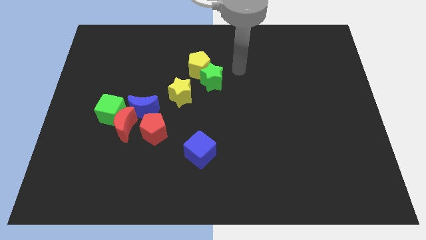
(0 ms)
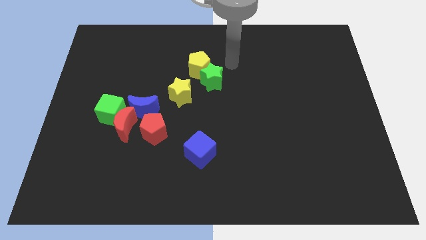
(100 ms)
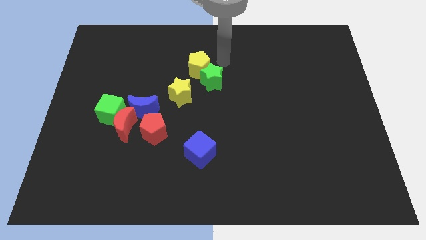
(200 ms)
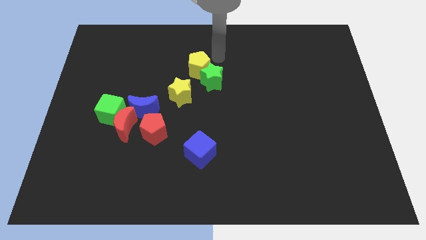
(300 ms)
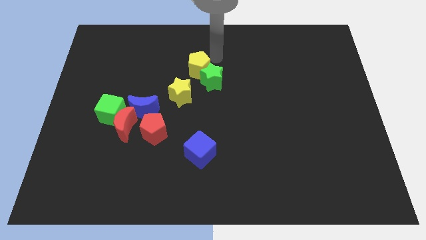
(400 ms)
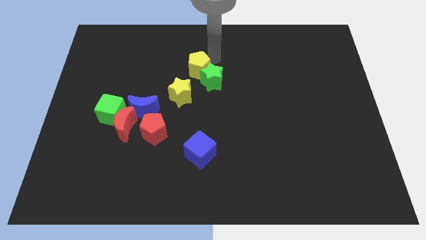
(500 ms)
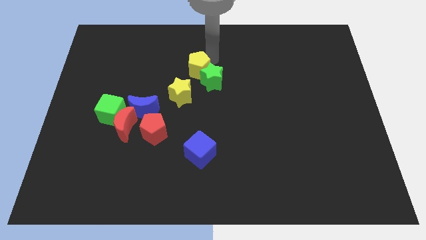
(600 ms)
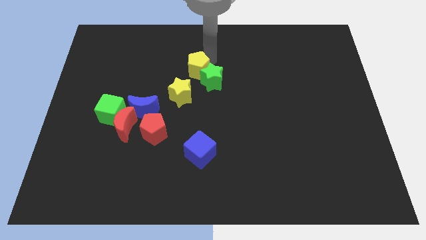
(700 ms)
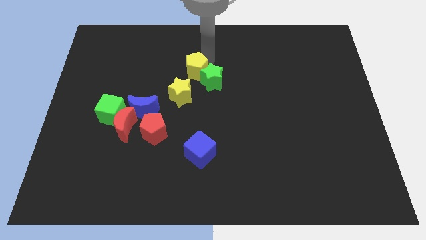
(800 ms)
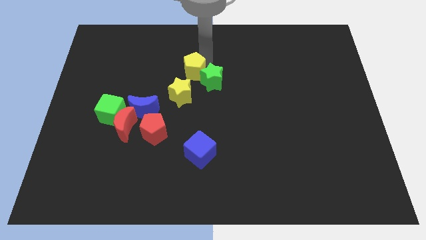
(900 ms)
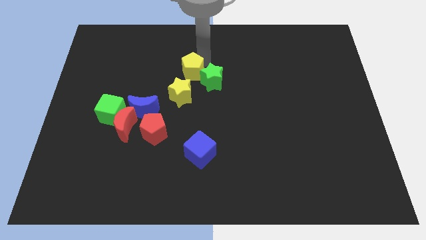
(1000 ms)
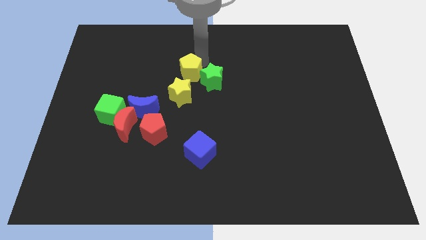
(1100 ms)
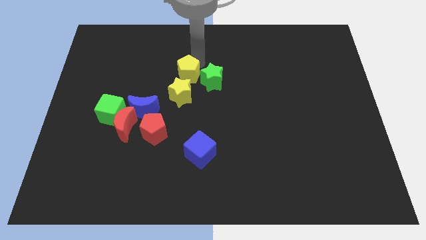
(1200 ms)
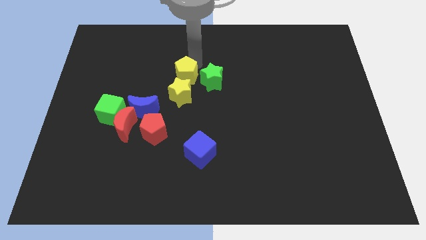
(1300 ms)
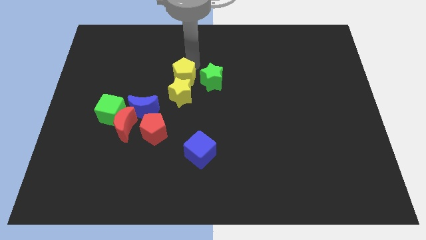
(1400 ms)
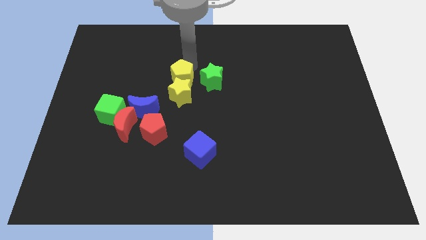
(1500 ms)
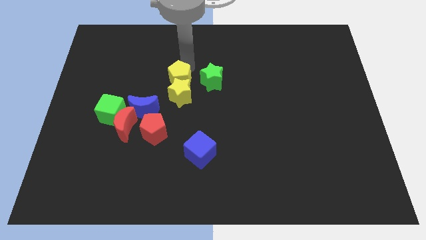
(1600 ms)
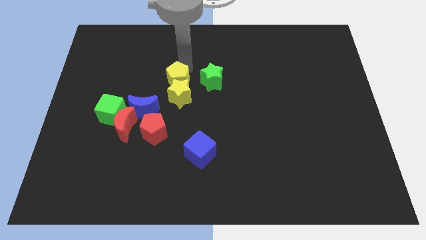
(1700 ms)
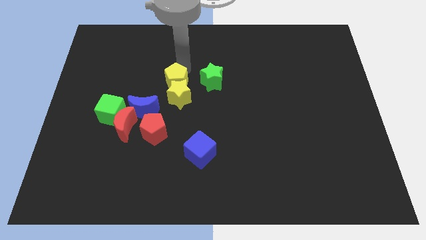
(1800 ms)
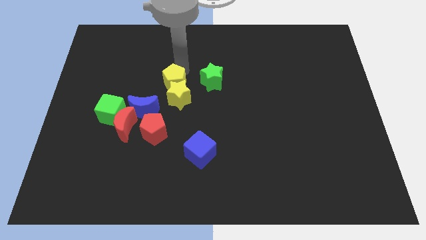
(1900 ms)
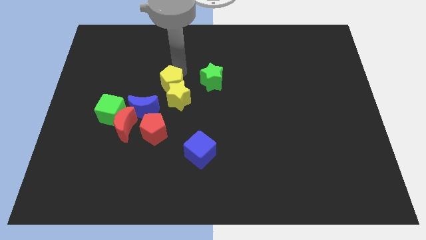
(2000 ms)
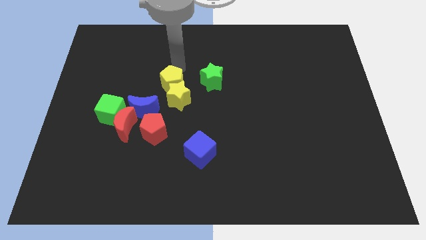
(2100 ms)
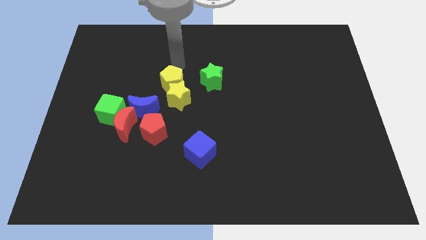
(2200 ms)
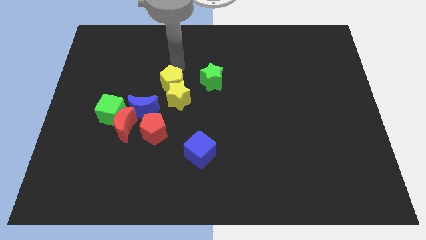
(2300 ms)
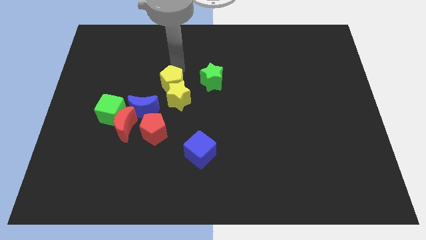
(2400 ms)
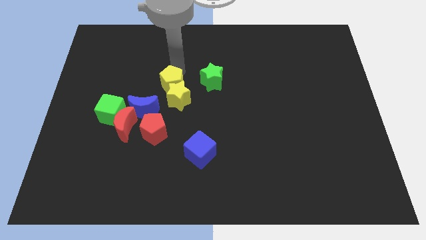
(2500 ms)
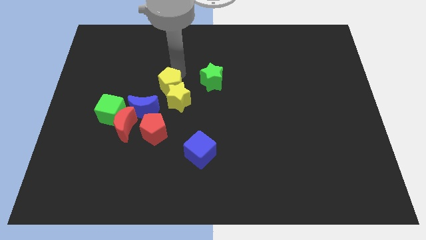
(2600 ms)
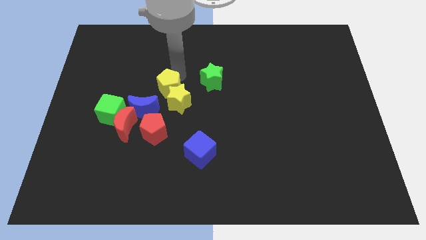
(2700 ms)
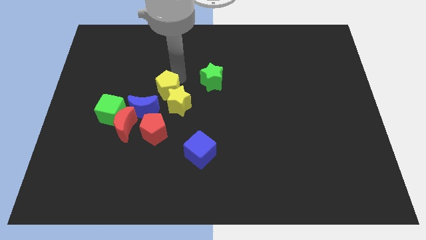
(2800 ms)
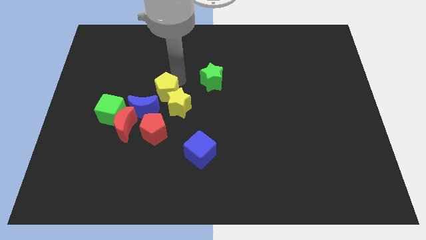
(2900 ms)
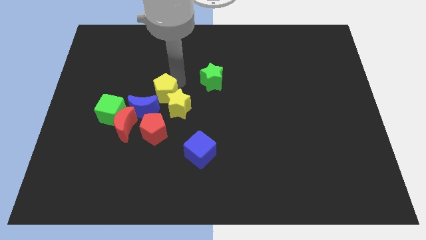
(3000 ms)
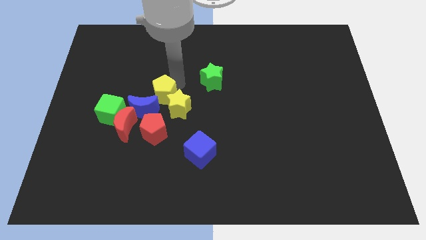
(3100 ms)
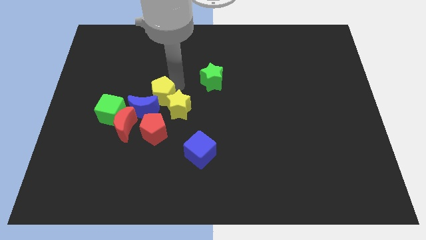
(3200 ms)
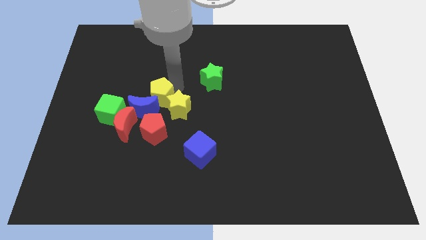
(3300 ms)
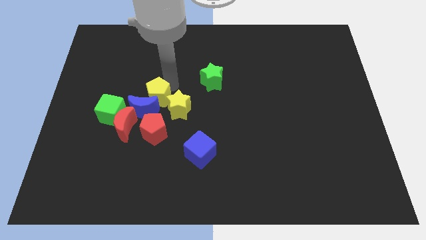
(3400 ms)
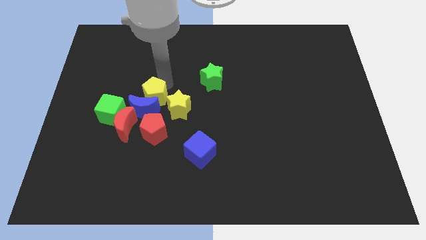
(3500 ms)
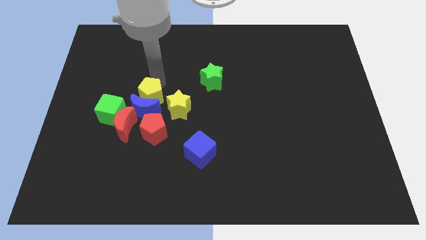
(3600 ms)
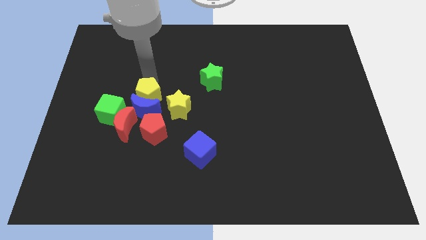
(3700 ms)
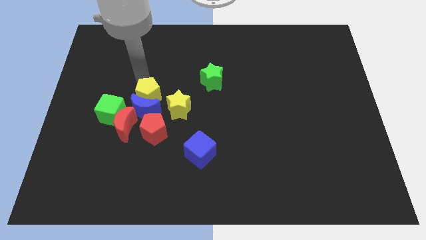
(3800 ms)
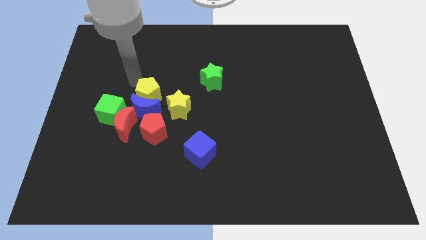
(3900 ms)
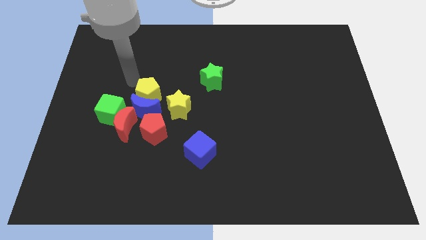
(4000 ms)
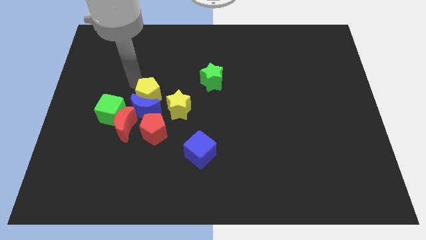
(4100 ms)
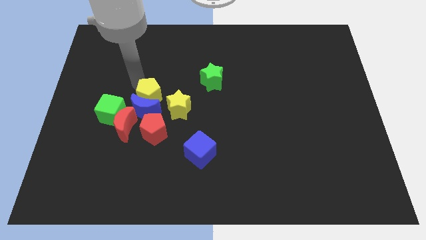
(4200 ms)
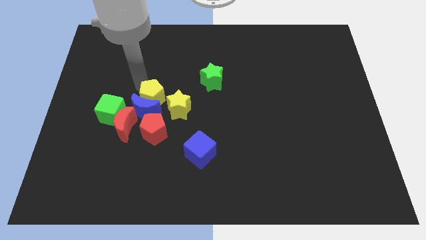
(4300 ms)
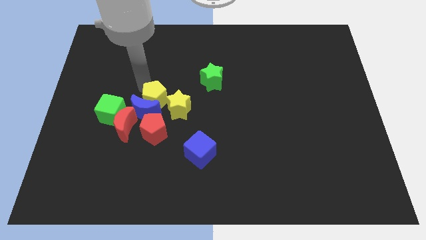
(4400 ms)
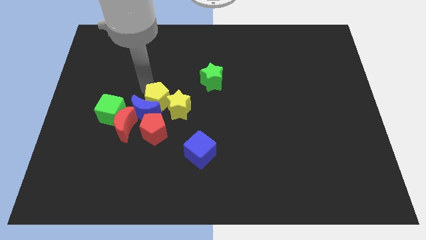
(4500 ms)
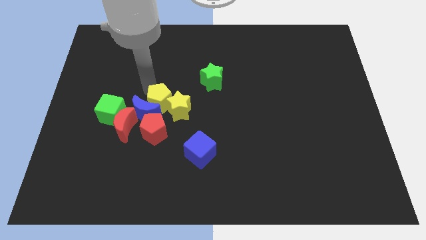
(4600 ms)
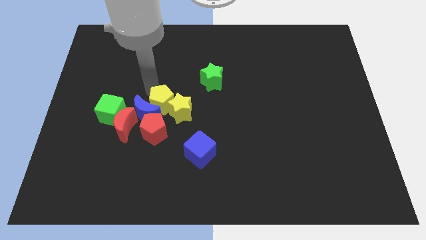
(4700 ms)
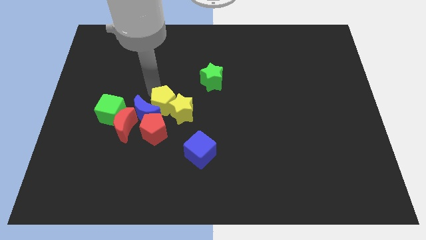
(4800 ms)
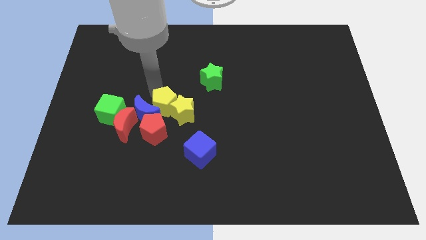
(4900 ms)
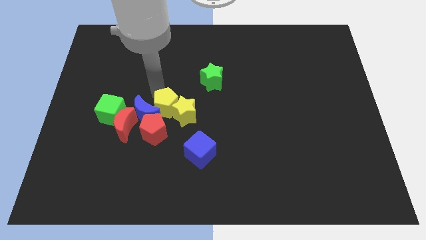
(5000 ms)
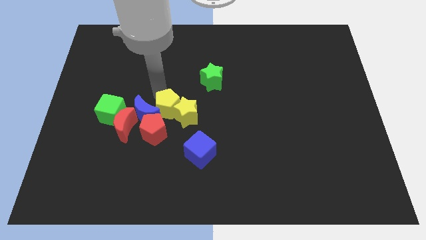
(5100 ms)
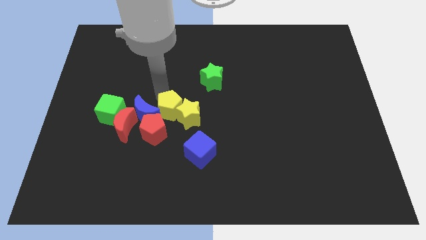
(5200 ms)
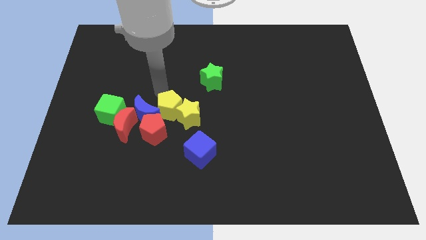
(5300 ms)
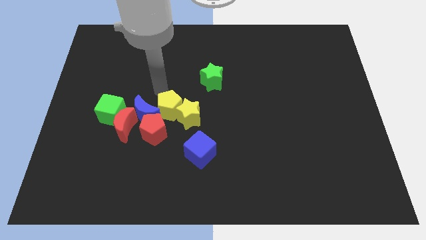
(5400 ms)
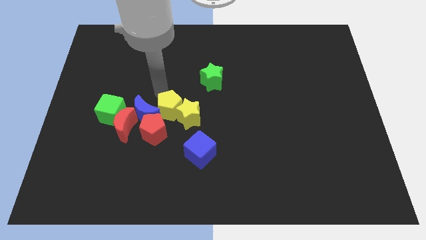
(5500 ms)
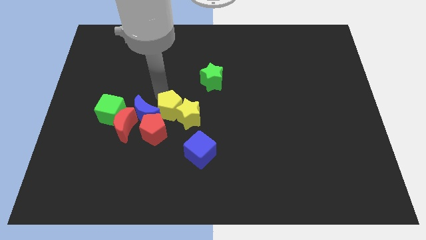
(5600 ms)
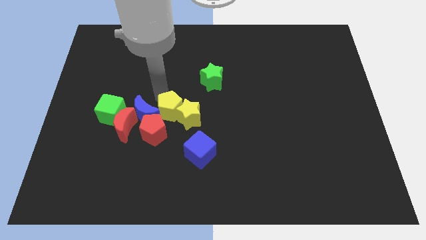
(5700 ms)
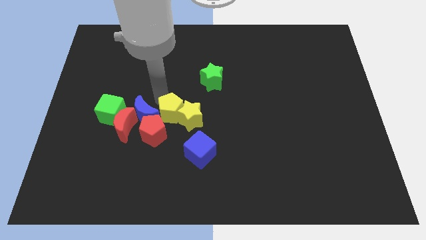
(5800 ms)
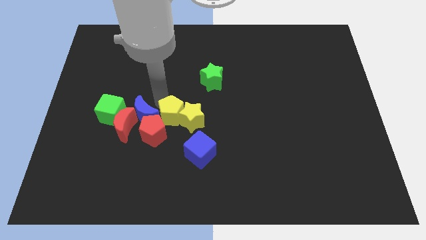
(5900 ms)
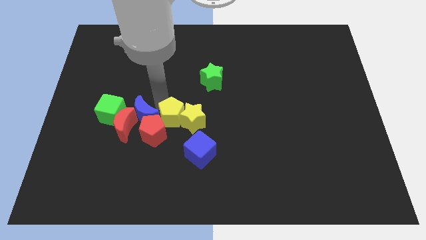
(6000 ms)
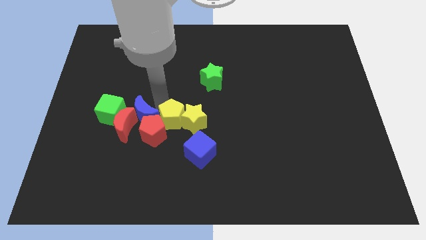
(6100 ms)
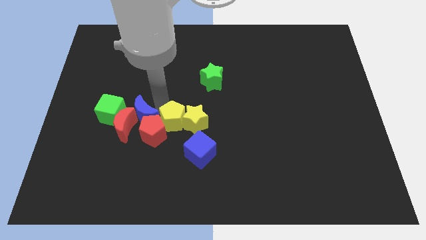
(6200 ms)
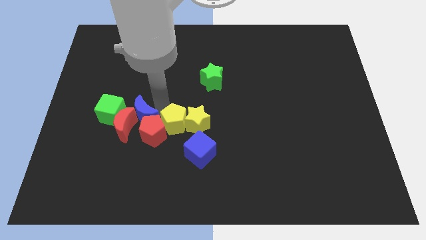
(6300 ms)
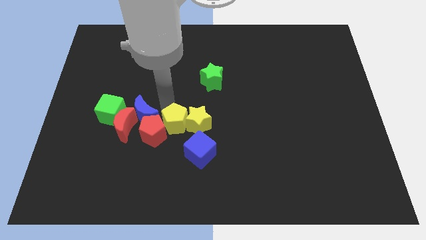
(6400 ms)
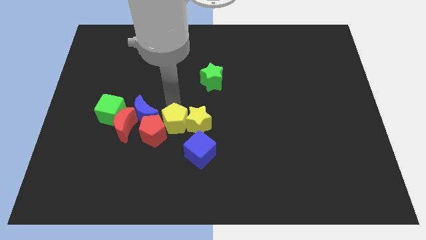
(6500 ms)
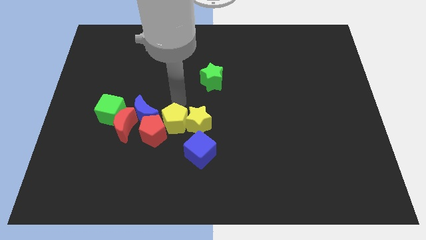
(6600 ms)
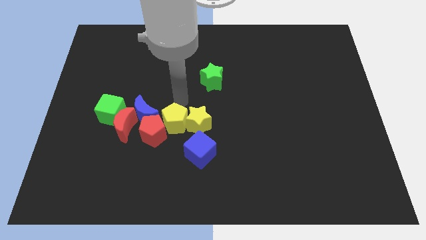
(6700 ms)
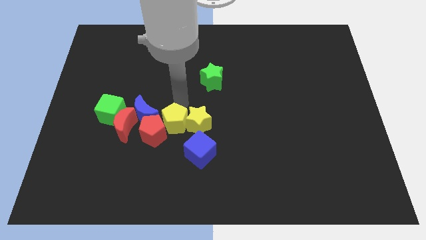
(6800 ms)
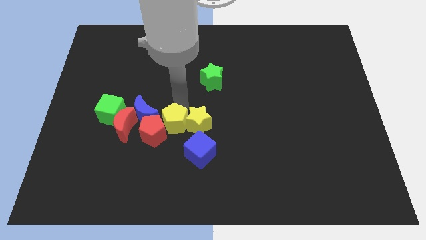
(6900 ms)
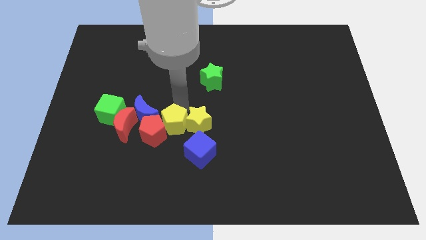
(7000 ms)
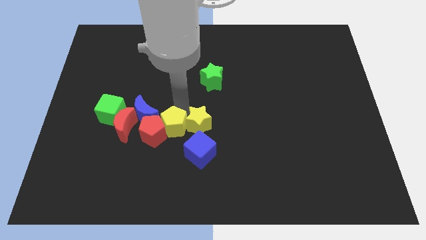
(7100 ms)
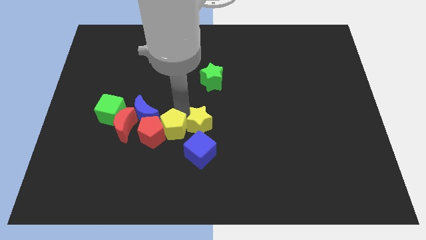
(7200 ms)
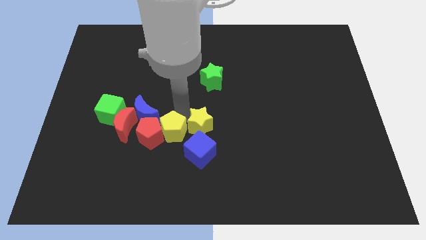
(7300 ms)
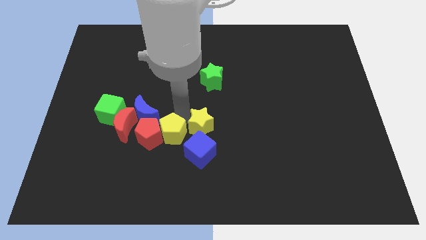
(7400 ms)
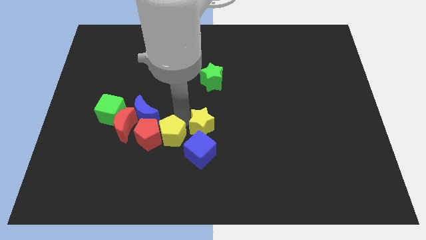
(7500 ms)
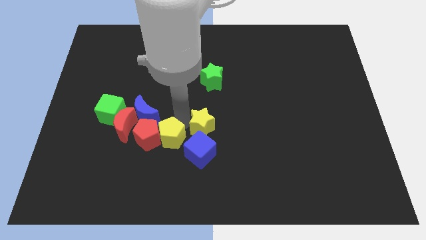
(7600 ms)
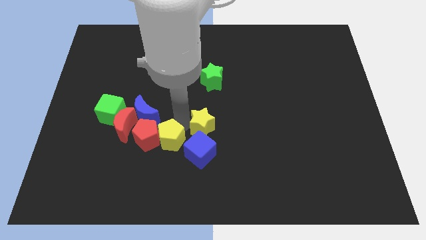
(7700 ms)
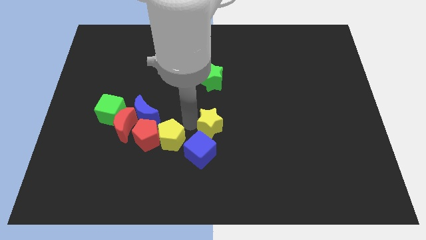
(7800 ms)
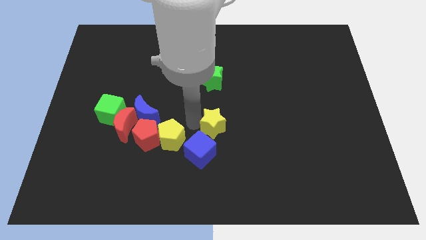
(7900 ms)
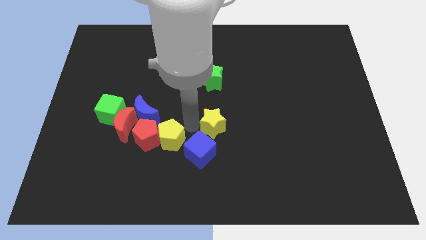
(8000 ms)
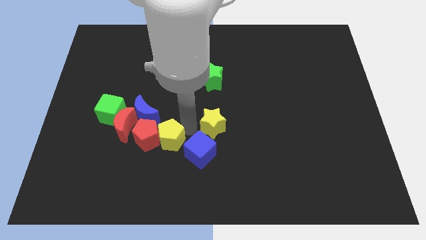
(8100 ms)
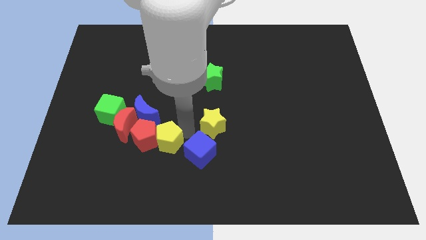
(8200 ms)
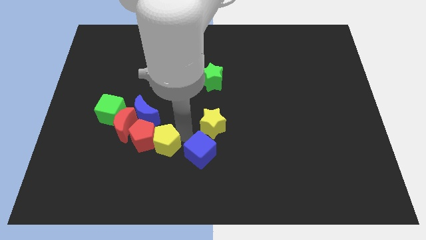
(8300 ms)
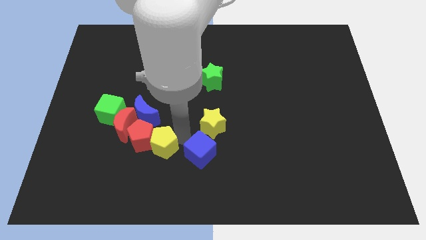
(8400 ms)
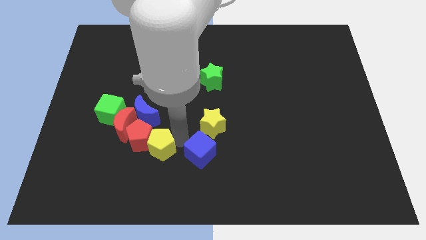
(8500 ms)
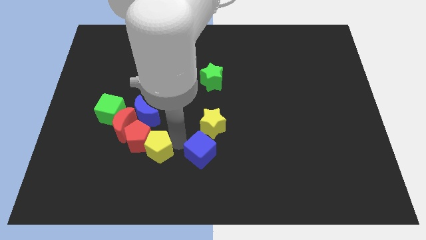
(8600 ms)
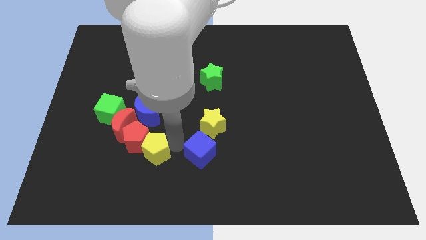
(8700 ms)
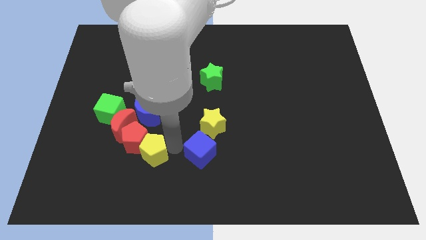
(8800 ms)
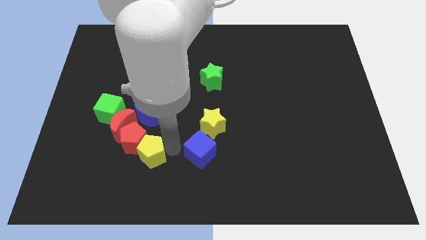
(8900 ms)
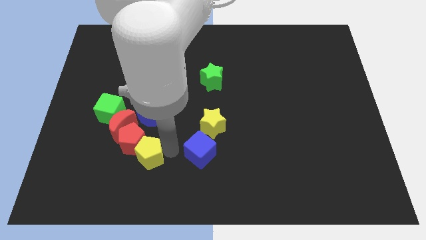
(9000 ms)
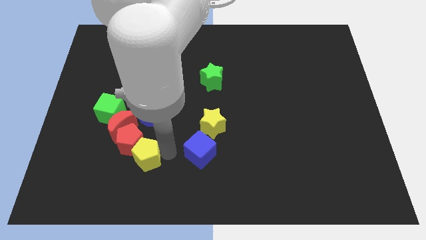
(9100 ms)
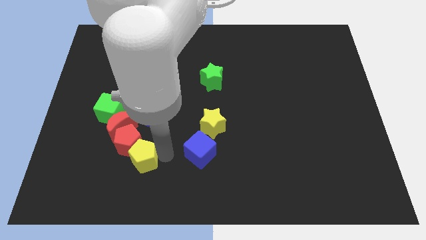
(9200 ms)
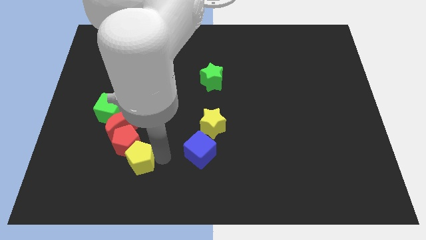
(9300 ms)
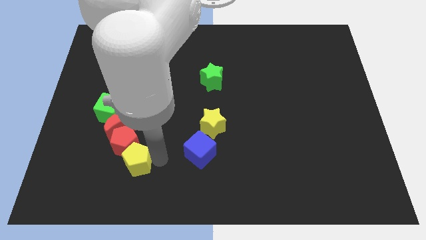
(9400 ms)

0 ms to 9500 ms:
put the yellow pentagon to the bottom of the red moon
